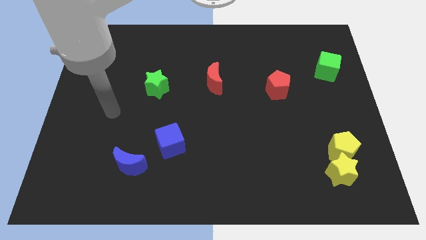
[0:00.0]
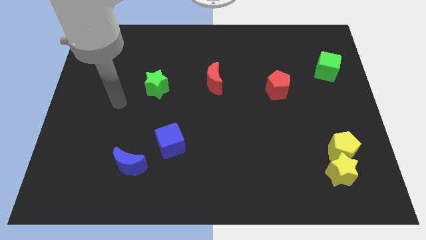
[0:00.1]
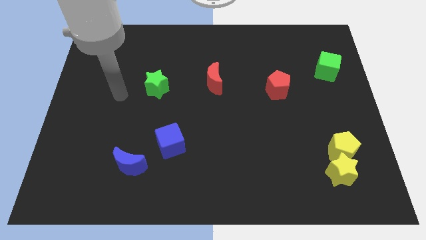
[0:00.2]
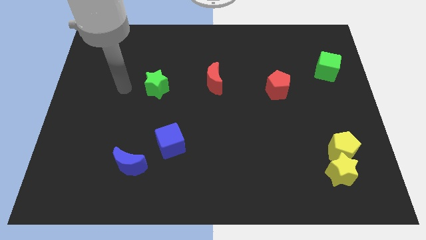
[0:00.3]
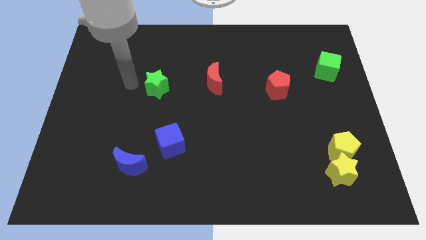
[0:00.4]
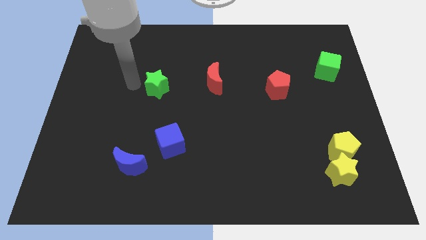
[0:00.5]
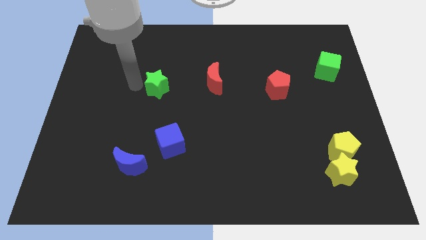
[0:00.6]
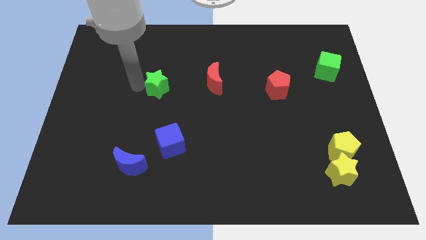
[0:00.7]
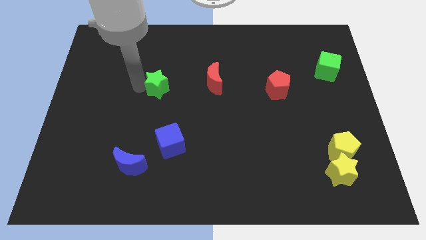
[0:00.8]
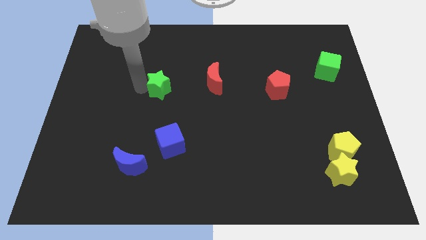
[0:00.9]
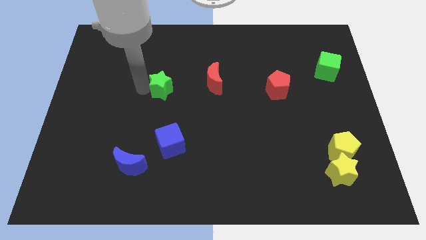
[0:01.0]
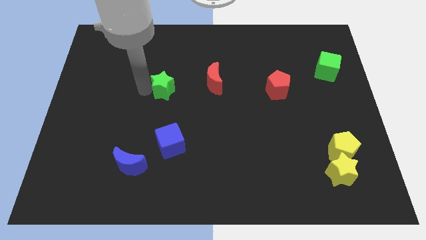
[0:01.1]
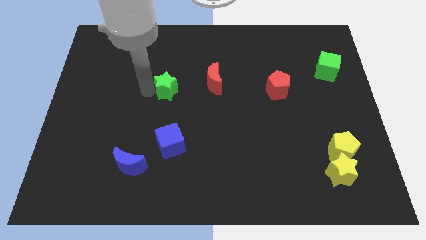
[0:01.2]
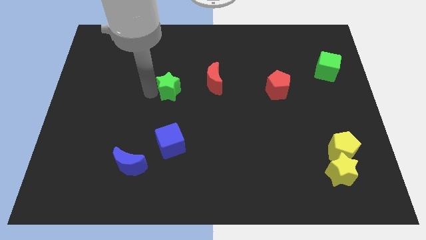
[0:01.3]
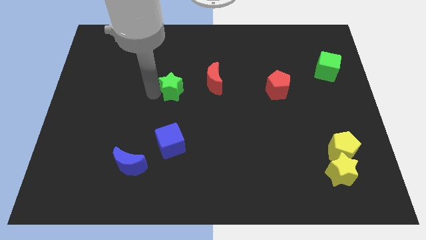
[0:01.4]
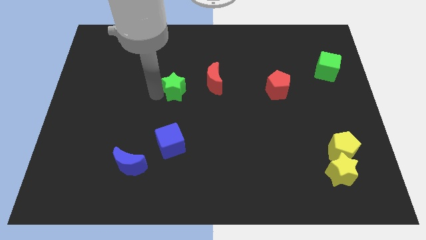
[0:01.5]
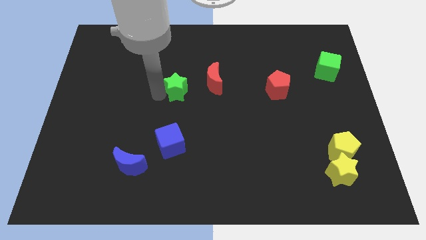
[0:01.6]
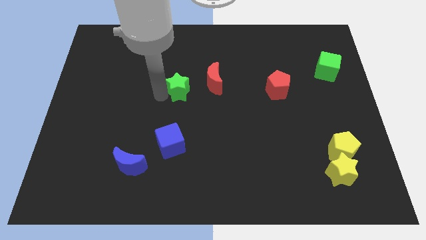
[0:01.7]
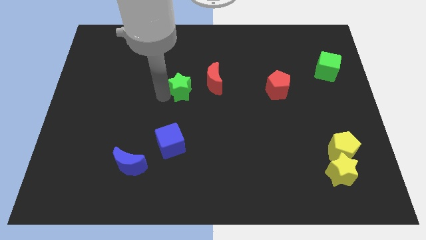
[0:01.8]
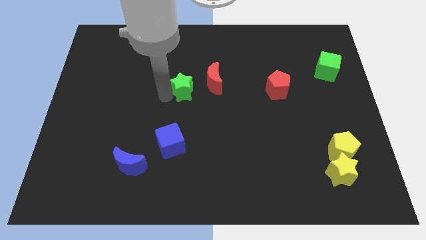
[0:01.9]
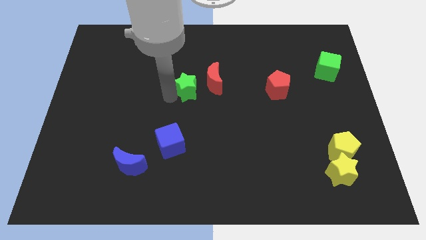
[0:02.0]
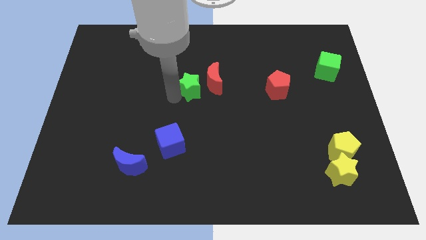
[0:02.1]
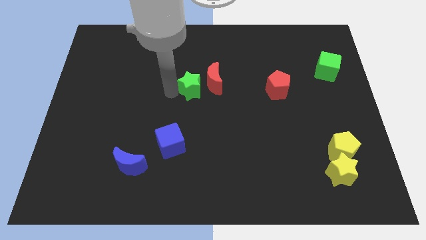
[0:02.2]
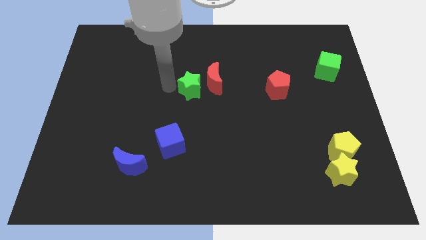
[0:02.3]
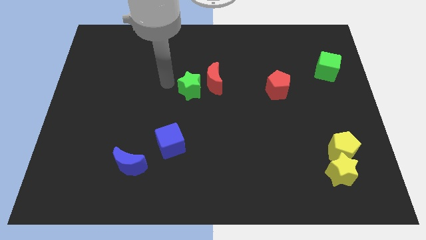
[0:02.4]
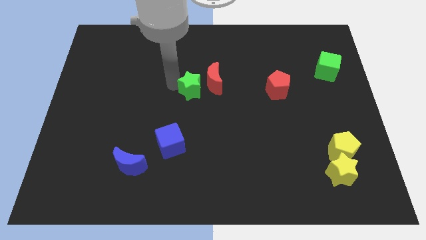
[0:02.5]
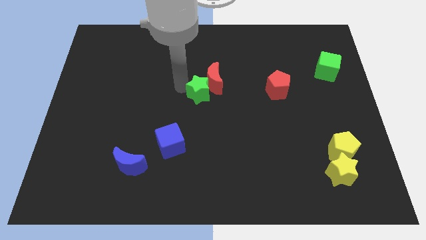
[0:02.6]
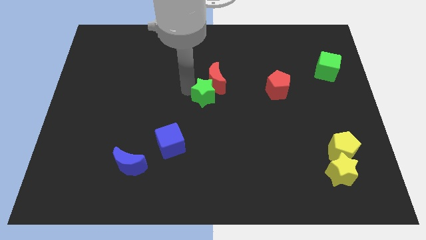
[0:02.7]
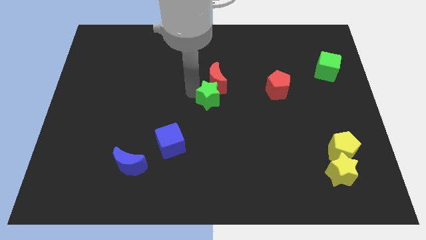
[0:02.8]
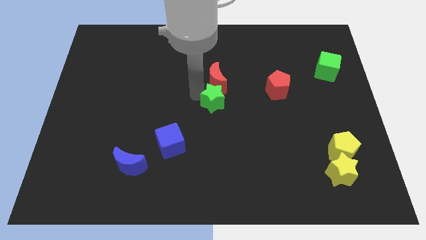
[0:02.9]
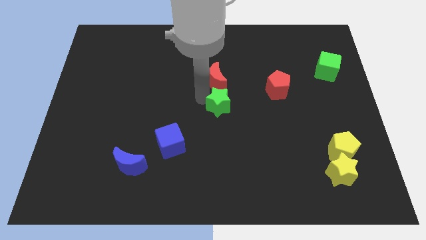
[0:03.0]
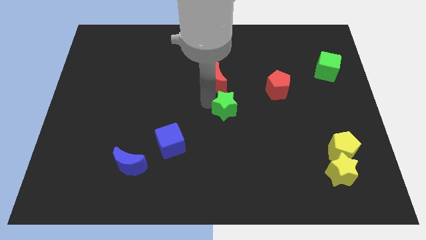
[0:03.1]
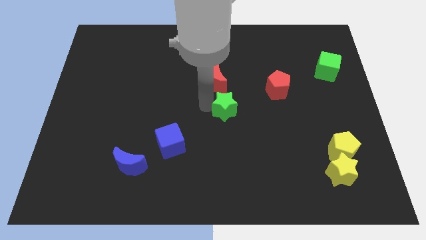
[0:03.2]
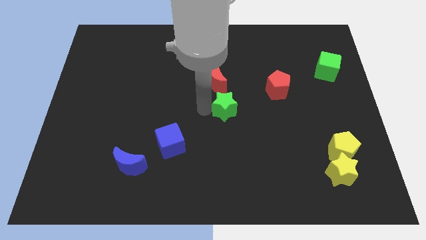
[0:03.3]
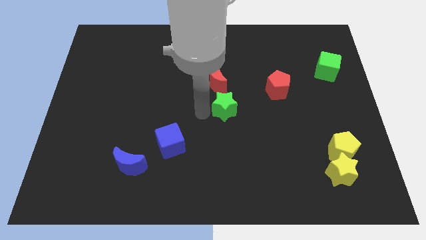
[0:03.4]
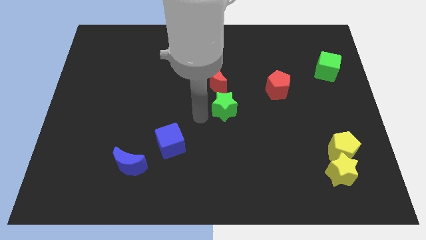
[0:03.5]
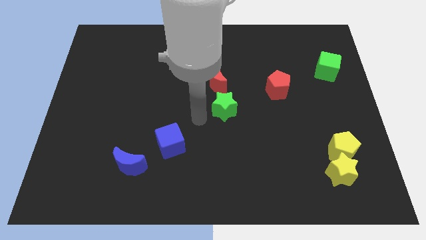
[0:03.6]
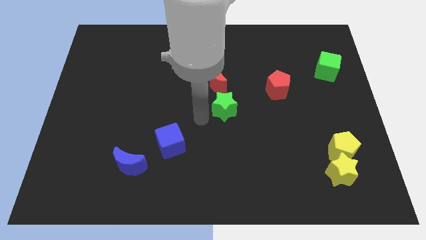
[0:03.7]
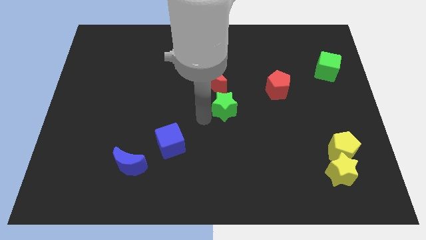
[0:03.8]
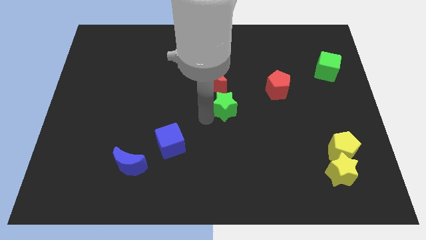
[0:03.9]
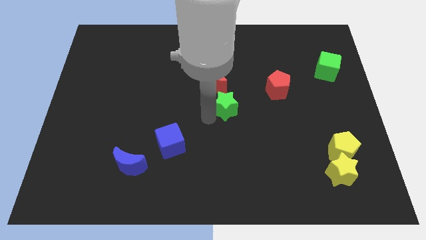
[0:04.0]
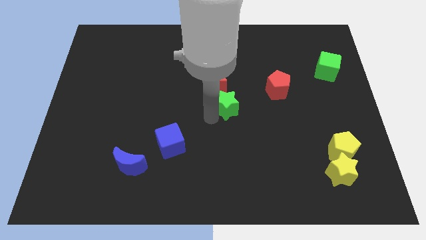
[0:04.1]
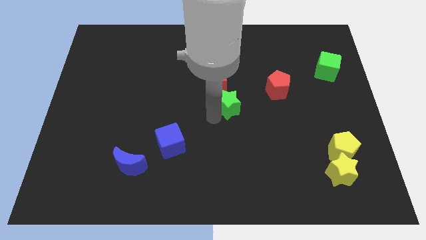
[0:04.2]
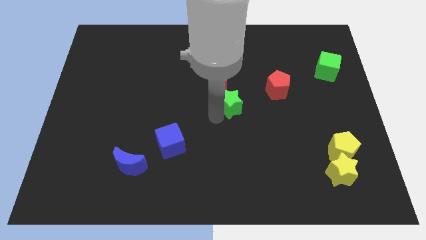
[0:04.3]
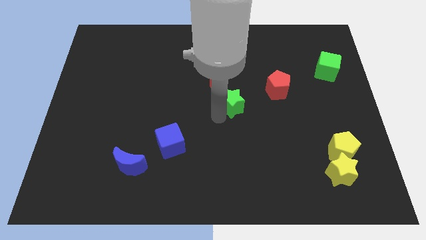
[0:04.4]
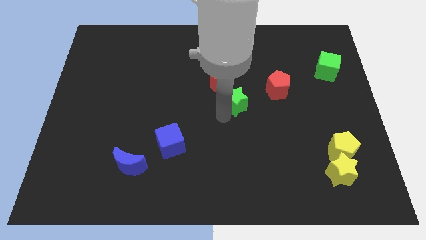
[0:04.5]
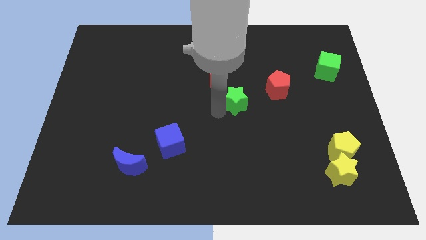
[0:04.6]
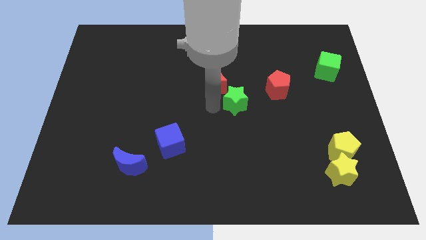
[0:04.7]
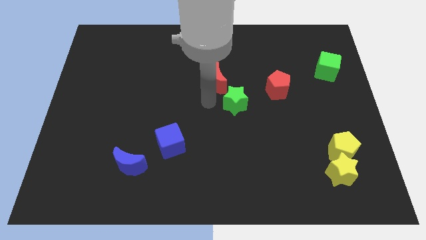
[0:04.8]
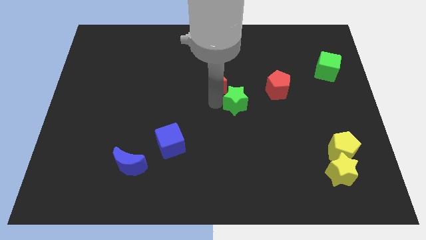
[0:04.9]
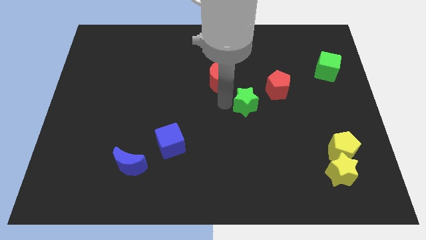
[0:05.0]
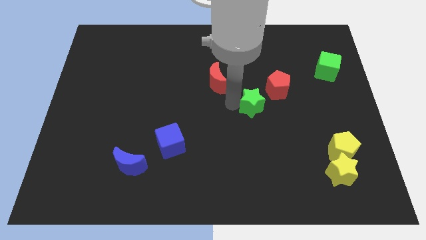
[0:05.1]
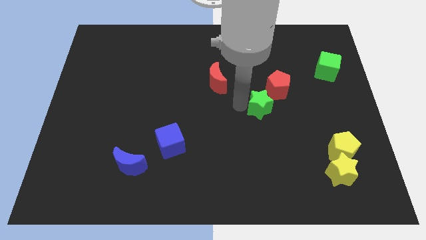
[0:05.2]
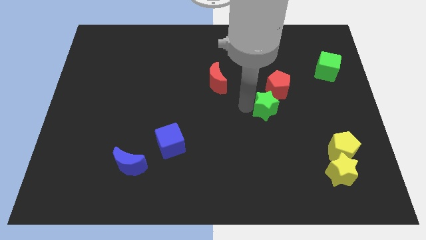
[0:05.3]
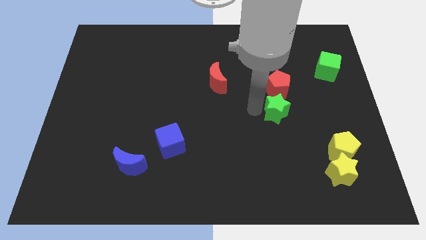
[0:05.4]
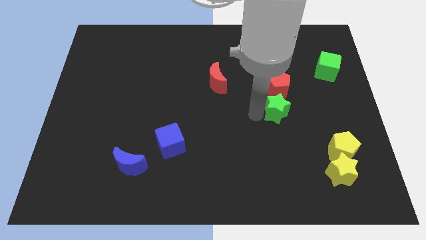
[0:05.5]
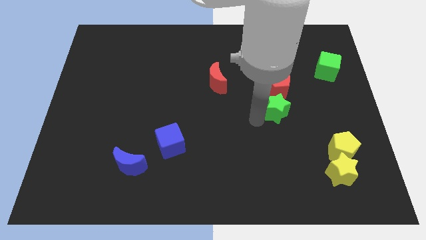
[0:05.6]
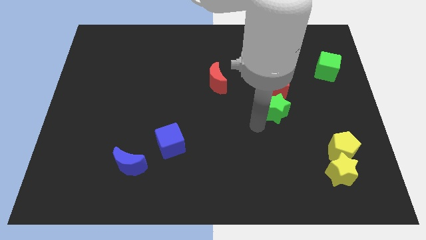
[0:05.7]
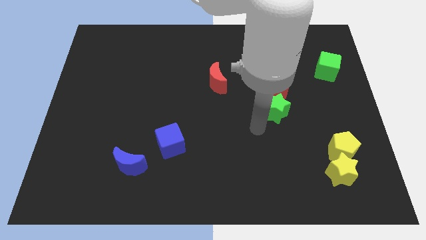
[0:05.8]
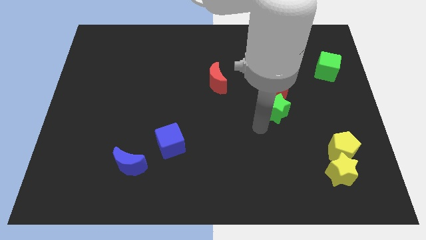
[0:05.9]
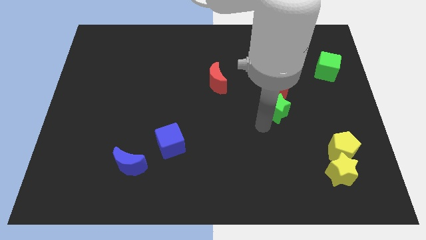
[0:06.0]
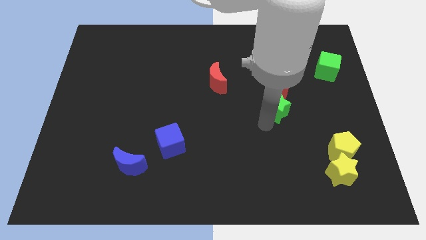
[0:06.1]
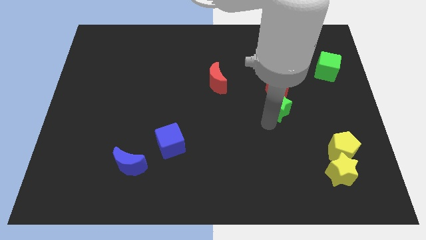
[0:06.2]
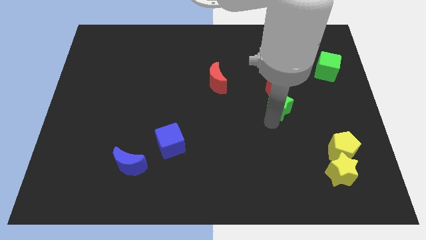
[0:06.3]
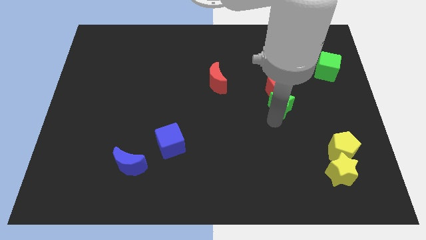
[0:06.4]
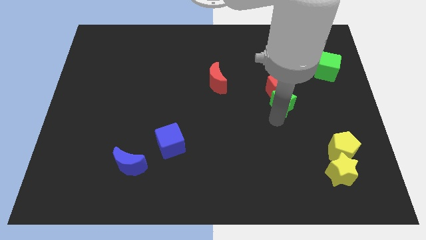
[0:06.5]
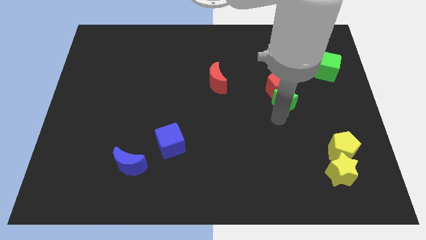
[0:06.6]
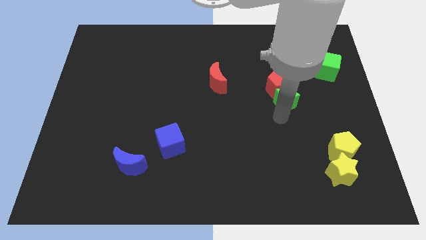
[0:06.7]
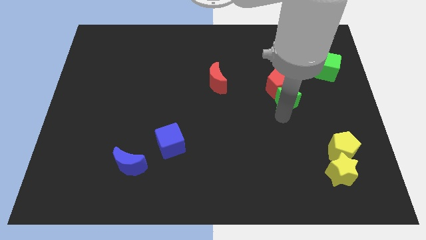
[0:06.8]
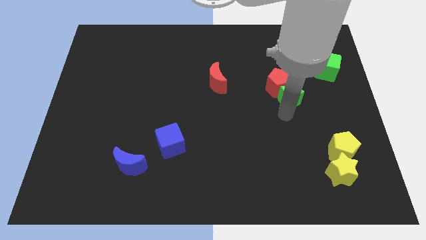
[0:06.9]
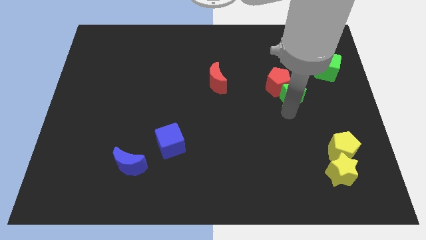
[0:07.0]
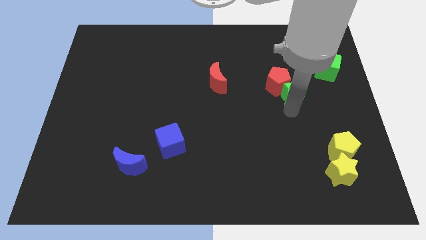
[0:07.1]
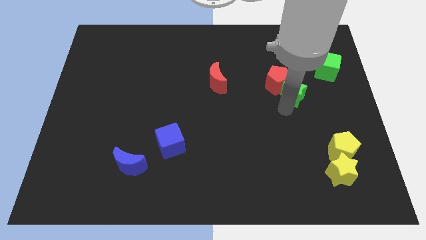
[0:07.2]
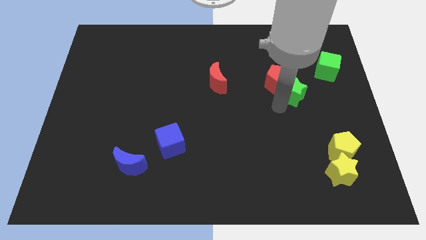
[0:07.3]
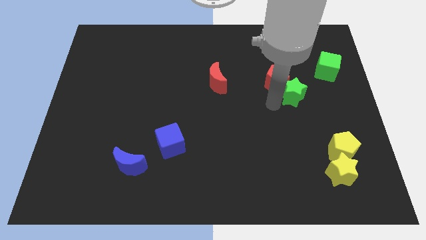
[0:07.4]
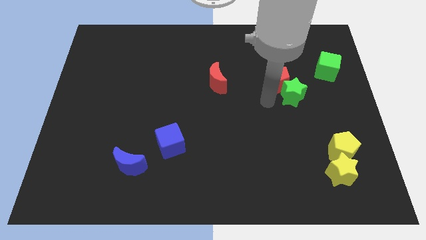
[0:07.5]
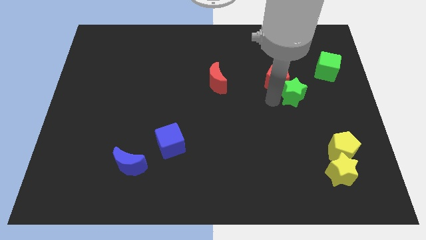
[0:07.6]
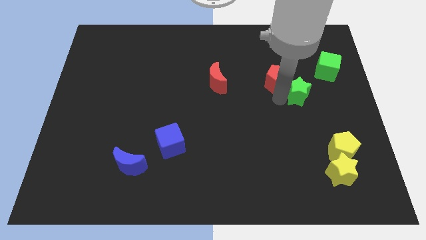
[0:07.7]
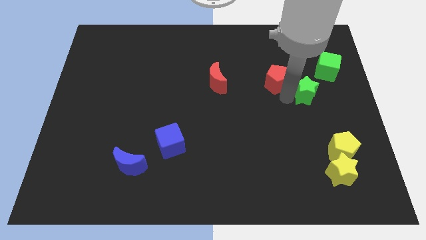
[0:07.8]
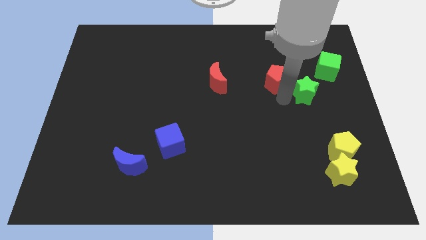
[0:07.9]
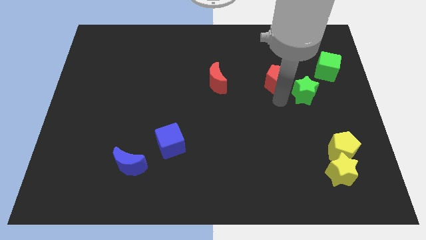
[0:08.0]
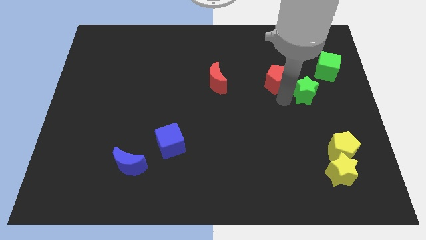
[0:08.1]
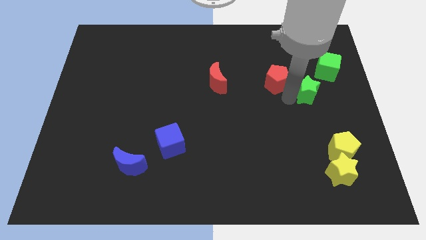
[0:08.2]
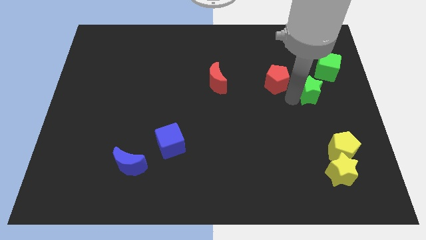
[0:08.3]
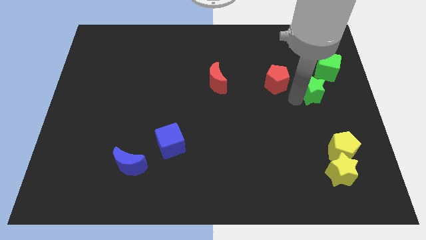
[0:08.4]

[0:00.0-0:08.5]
slide the green star to the bottom of the green cube
